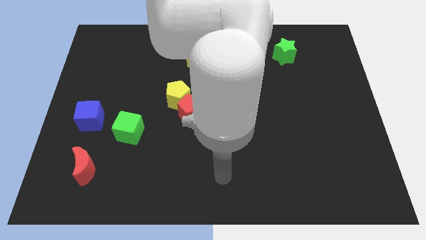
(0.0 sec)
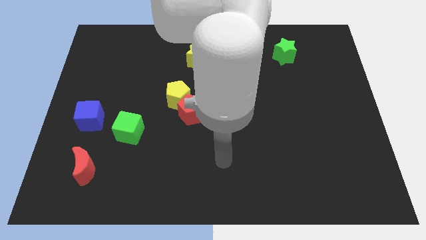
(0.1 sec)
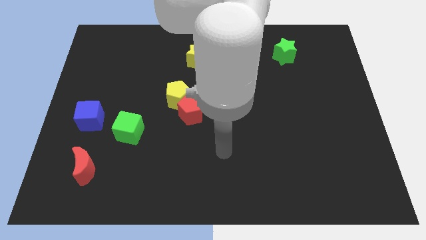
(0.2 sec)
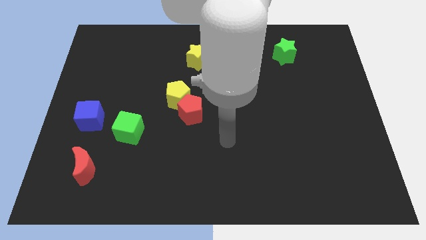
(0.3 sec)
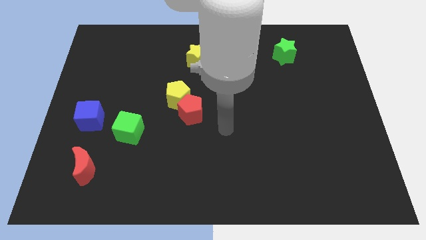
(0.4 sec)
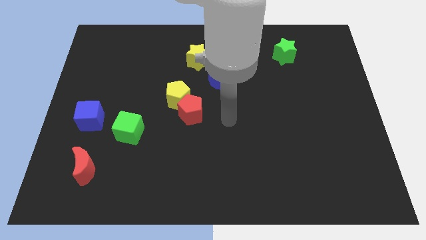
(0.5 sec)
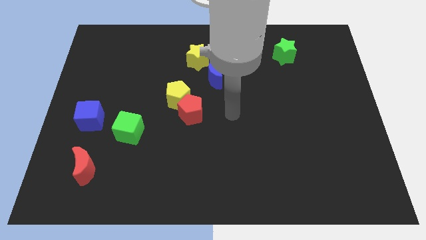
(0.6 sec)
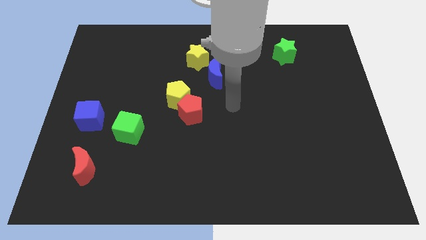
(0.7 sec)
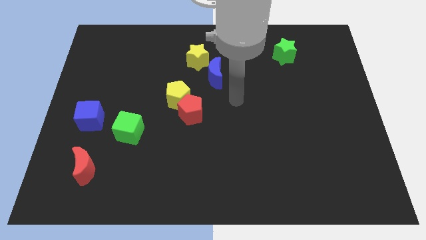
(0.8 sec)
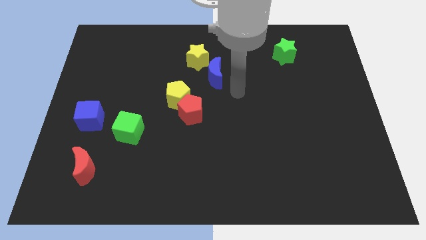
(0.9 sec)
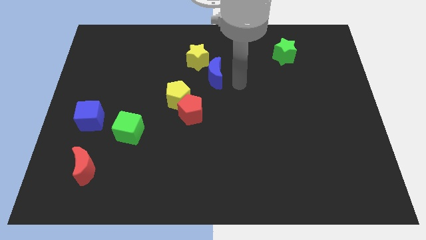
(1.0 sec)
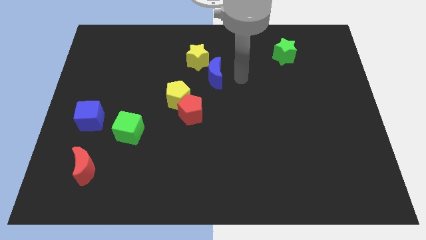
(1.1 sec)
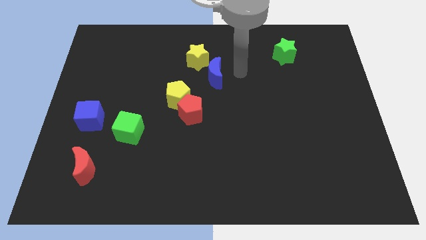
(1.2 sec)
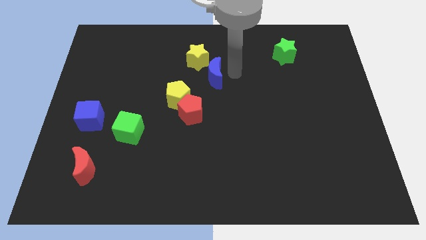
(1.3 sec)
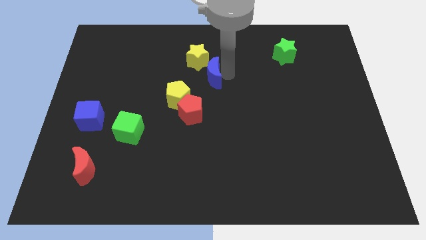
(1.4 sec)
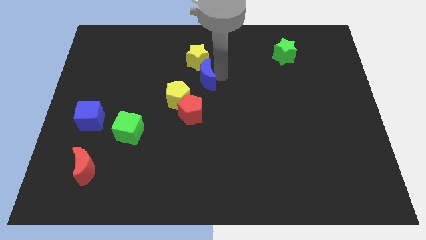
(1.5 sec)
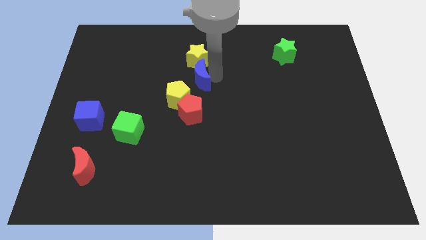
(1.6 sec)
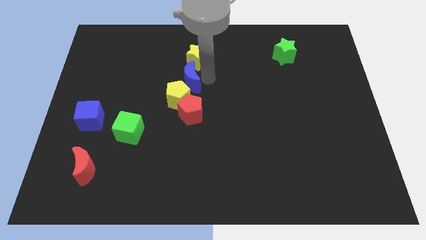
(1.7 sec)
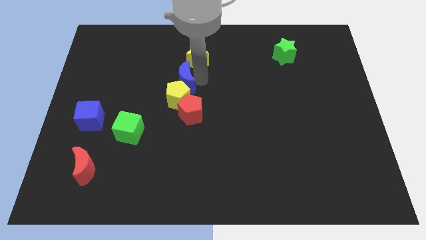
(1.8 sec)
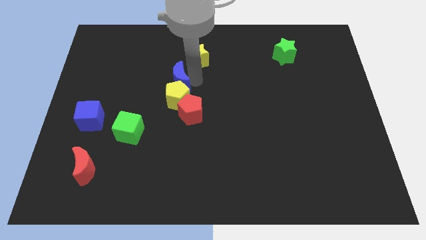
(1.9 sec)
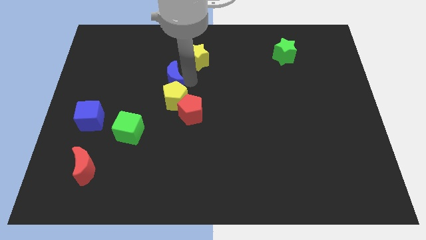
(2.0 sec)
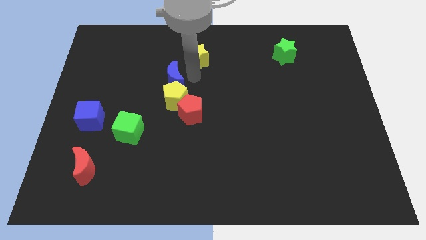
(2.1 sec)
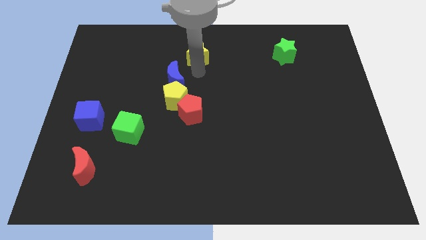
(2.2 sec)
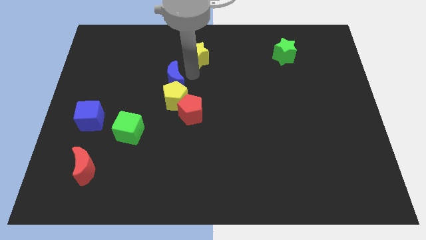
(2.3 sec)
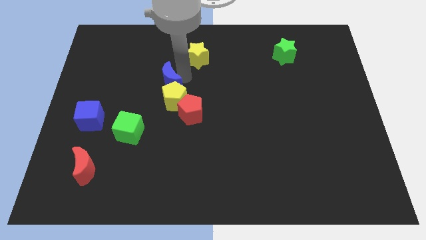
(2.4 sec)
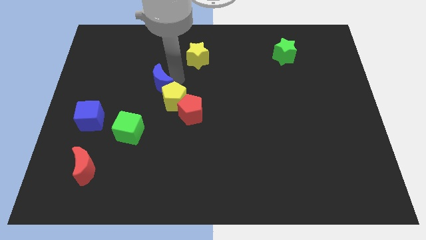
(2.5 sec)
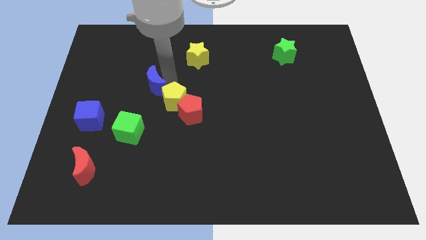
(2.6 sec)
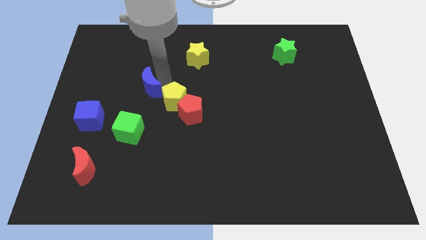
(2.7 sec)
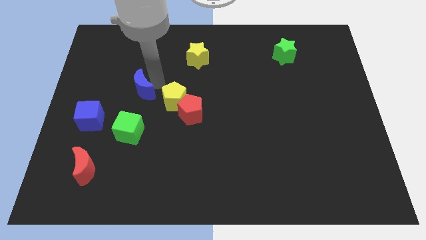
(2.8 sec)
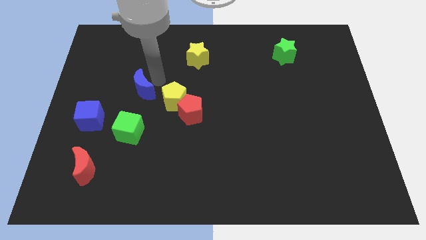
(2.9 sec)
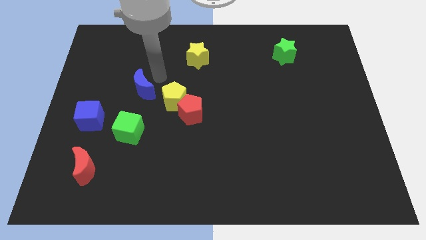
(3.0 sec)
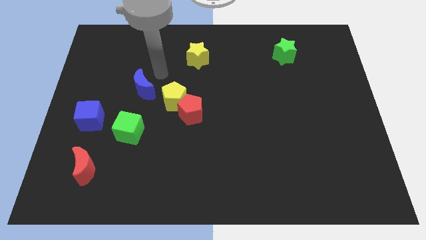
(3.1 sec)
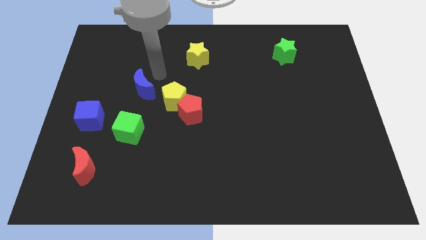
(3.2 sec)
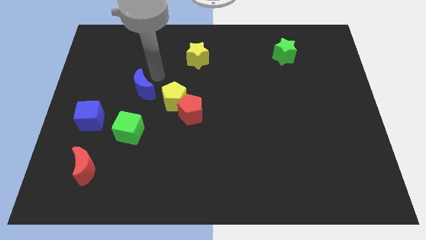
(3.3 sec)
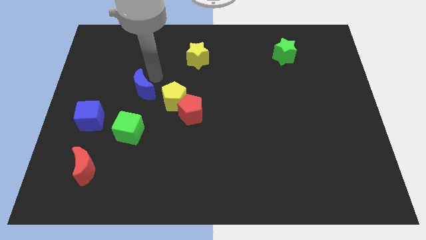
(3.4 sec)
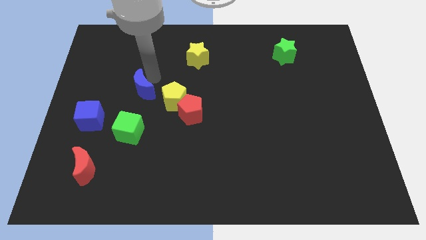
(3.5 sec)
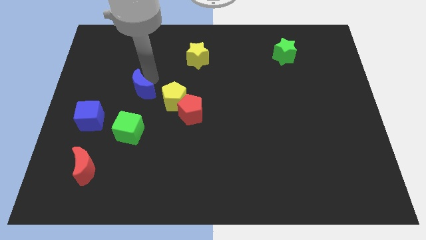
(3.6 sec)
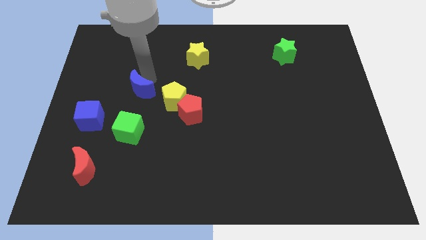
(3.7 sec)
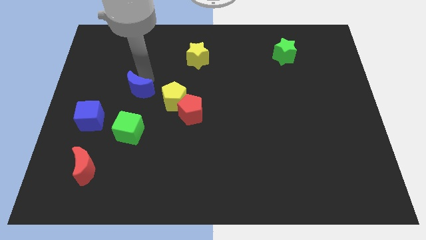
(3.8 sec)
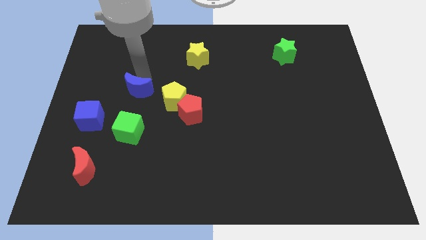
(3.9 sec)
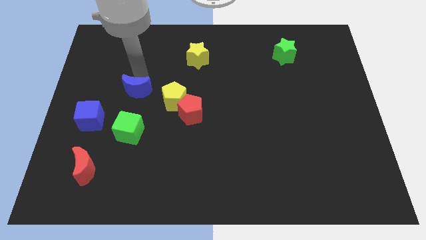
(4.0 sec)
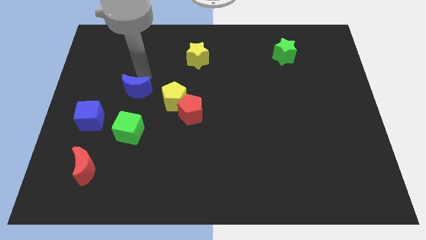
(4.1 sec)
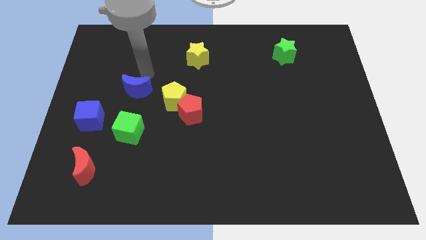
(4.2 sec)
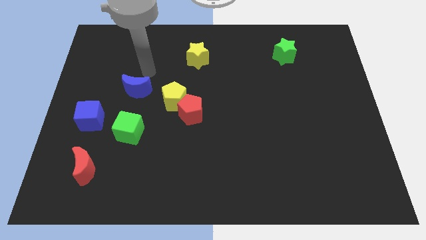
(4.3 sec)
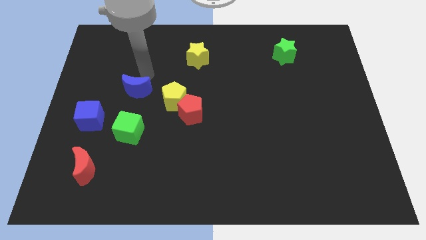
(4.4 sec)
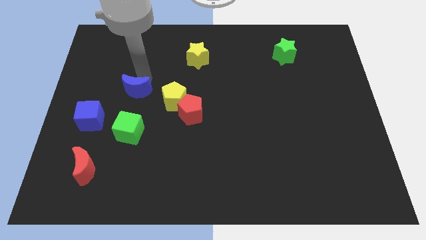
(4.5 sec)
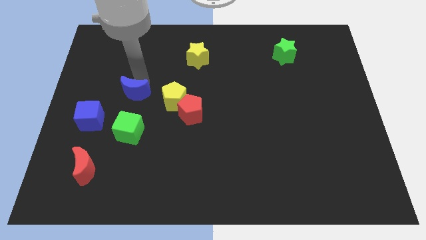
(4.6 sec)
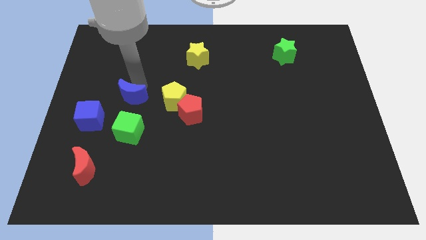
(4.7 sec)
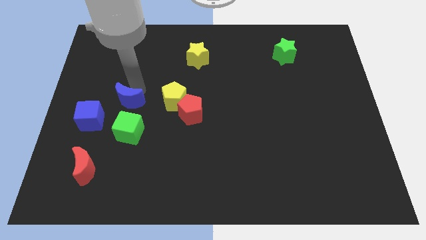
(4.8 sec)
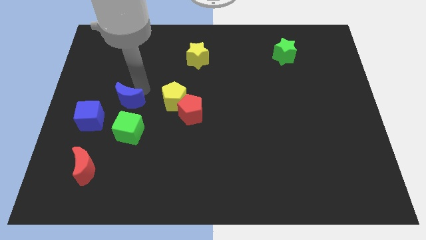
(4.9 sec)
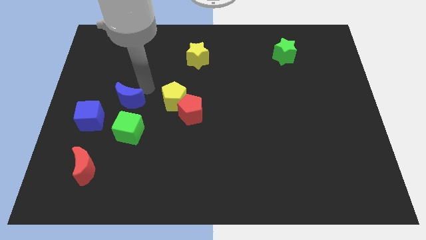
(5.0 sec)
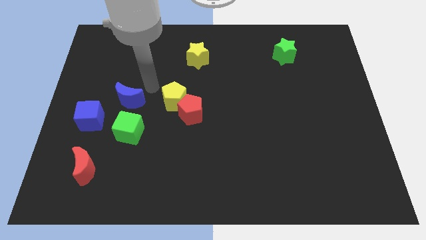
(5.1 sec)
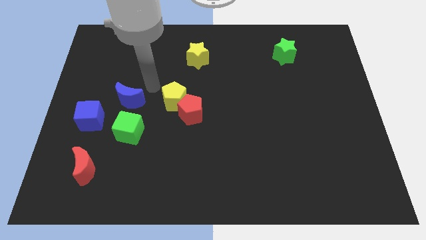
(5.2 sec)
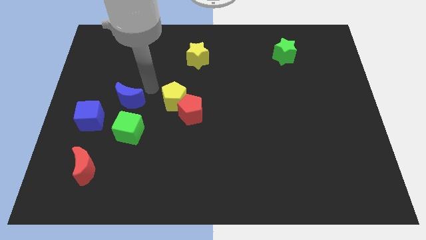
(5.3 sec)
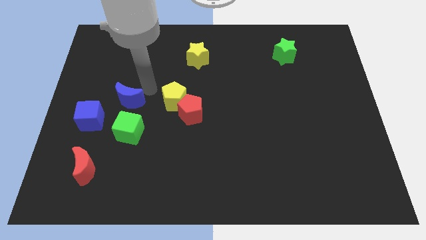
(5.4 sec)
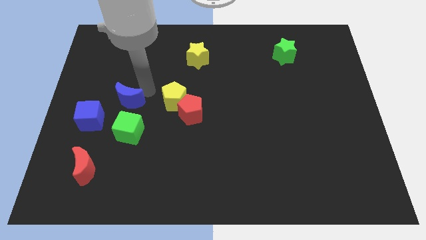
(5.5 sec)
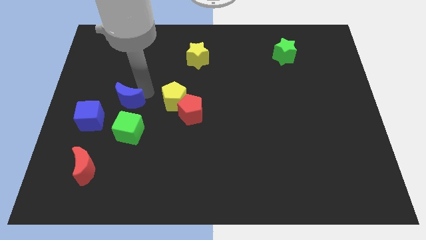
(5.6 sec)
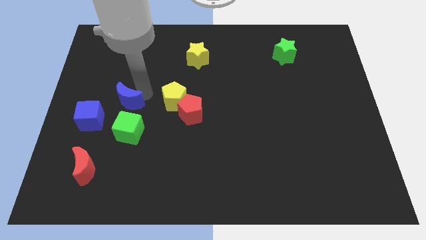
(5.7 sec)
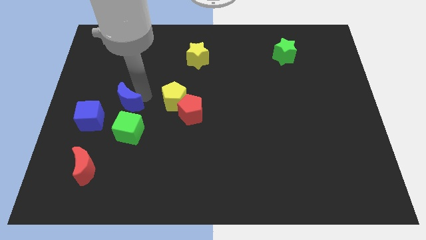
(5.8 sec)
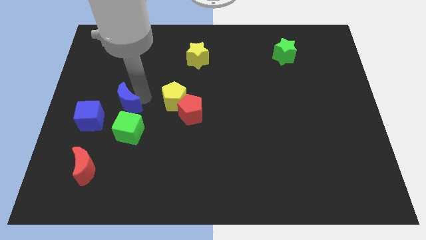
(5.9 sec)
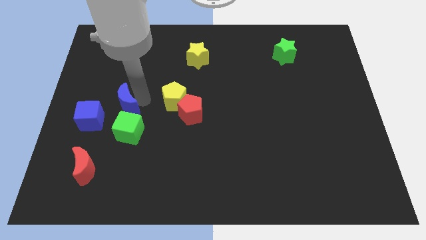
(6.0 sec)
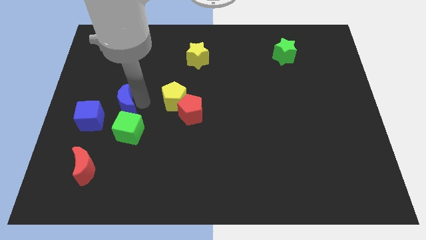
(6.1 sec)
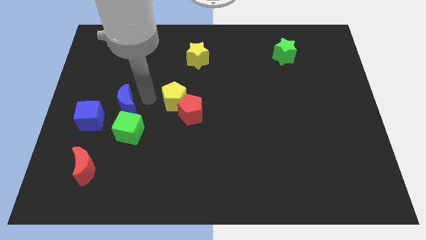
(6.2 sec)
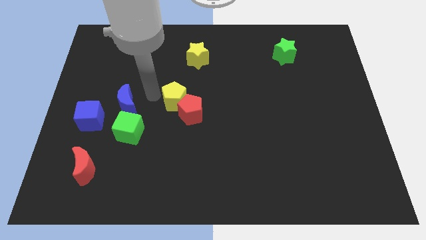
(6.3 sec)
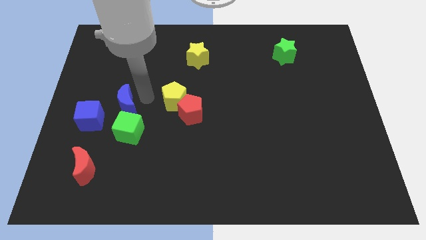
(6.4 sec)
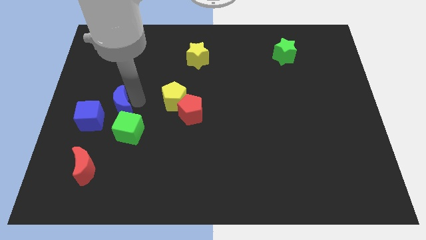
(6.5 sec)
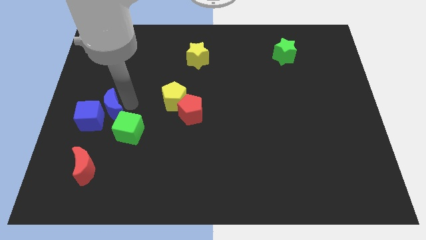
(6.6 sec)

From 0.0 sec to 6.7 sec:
push the blue moon to the blue cube

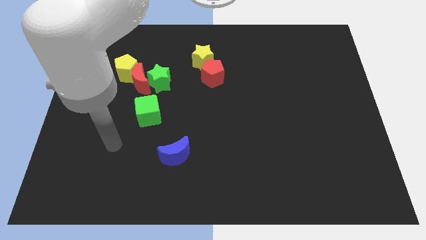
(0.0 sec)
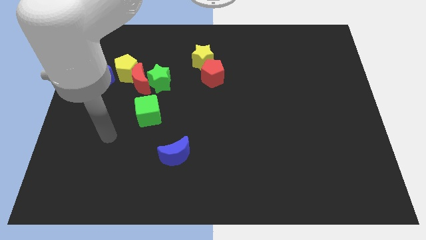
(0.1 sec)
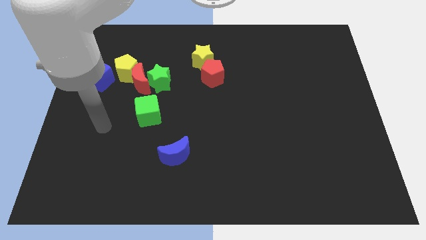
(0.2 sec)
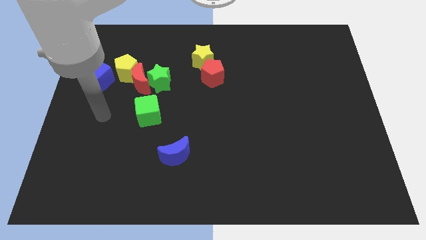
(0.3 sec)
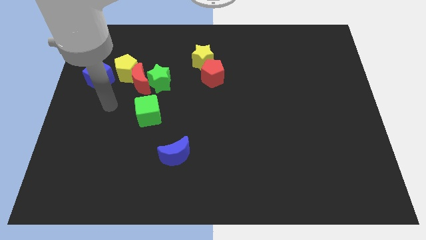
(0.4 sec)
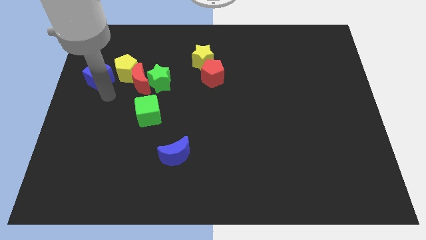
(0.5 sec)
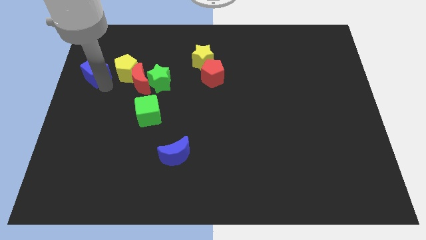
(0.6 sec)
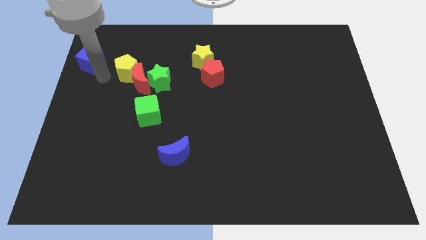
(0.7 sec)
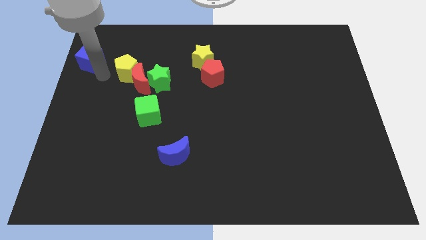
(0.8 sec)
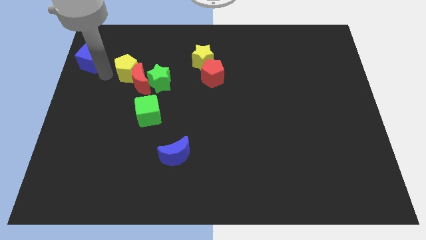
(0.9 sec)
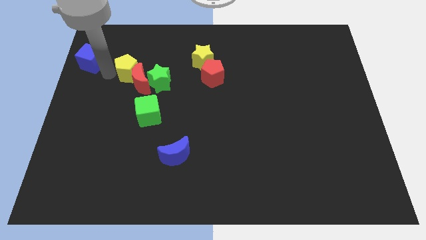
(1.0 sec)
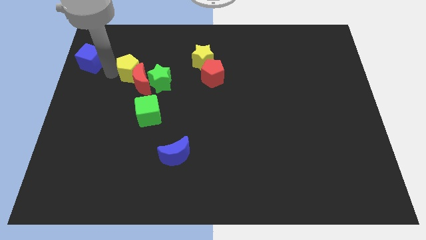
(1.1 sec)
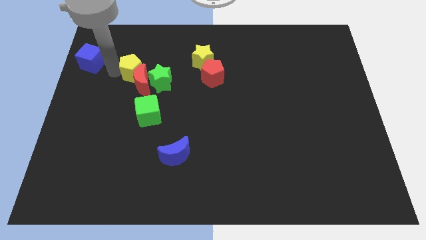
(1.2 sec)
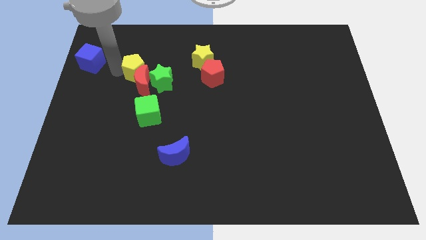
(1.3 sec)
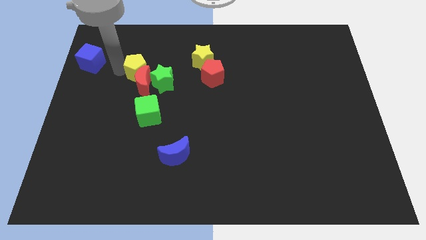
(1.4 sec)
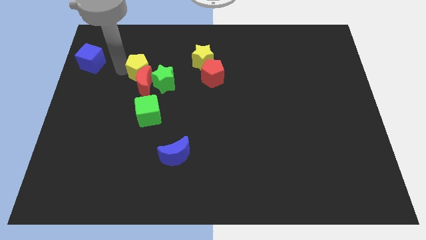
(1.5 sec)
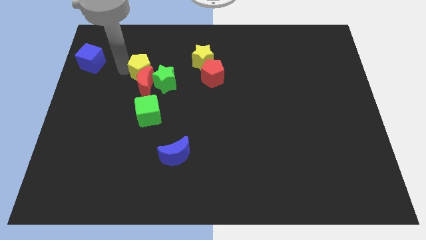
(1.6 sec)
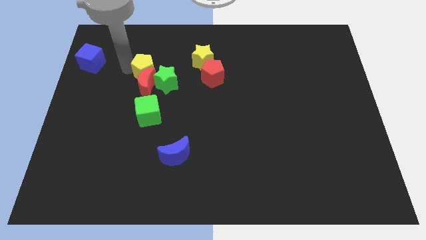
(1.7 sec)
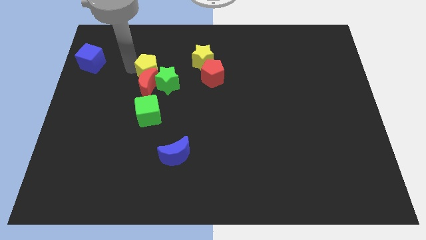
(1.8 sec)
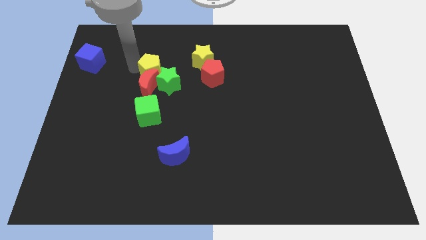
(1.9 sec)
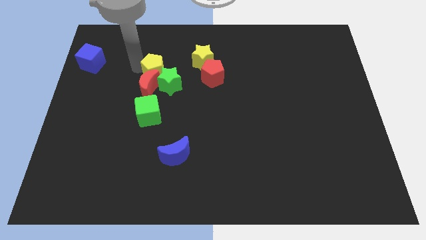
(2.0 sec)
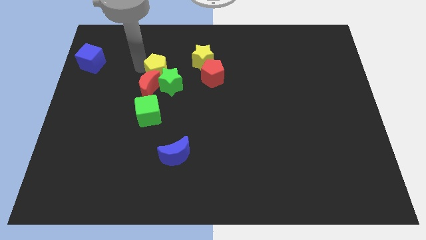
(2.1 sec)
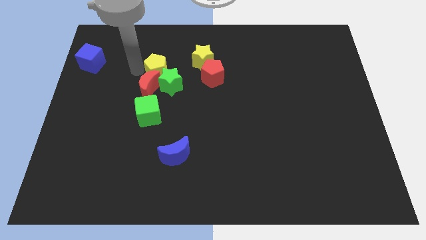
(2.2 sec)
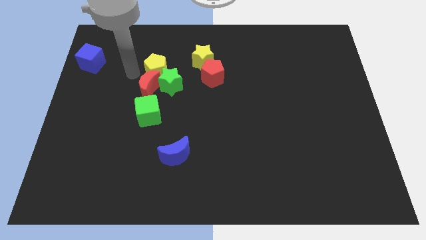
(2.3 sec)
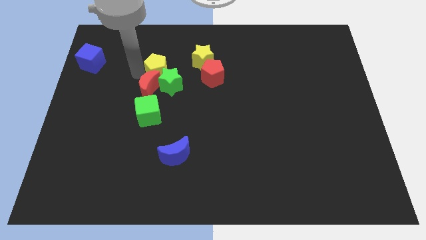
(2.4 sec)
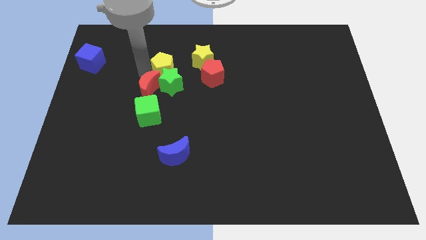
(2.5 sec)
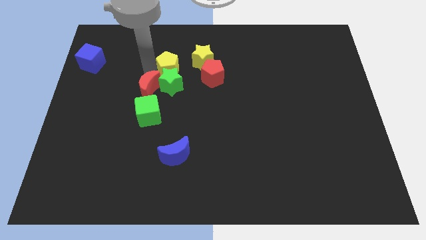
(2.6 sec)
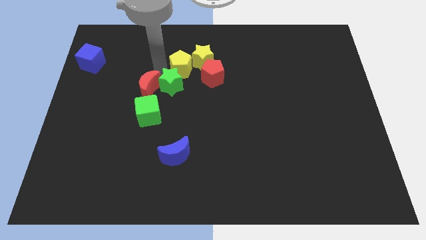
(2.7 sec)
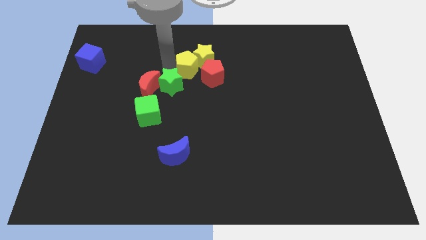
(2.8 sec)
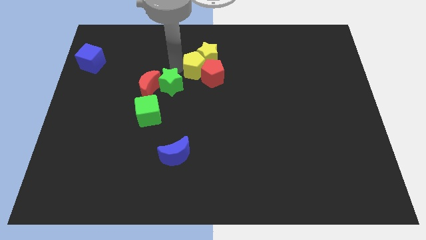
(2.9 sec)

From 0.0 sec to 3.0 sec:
move the yellow pentagon next to the red pentagon
